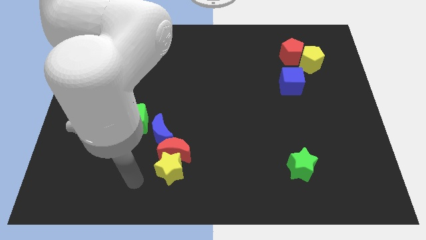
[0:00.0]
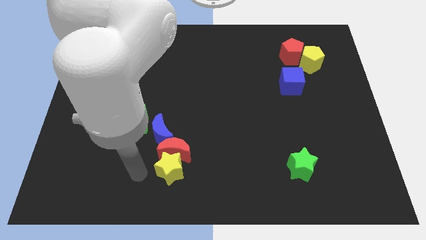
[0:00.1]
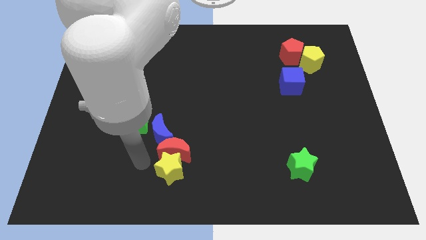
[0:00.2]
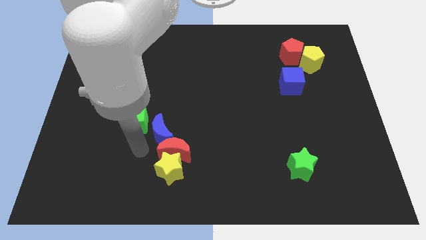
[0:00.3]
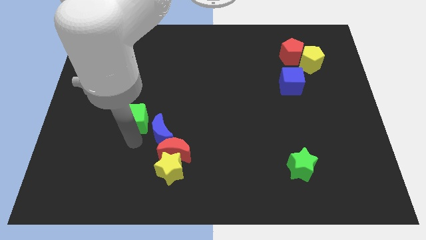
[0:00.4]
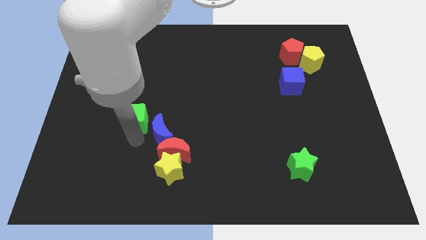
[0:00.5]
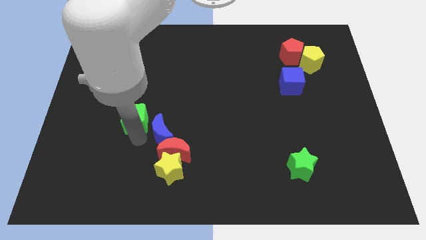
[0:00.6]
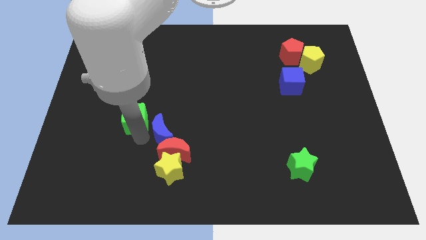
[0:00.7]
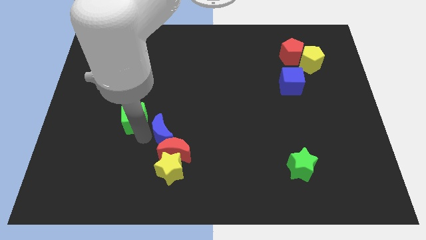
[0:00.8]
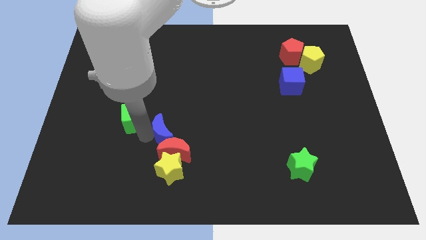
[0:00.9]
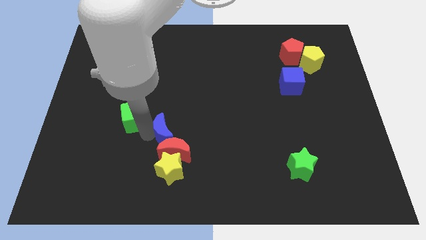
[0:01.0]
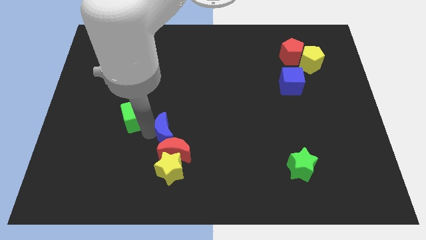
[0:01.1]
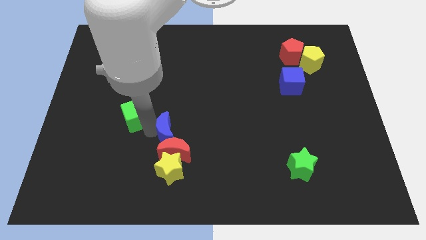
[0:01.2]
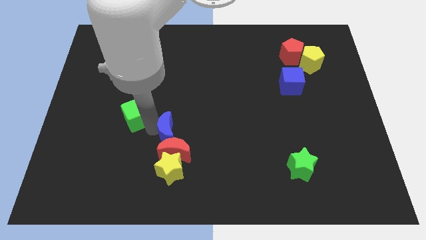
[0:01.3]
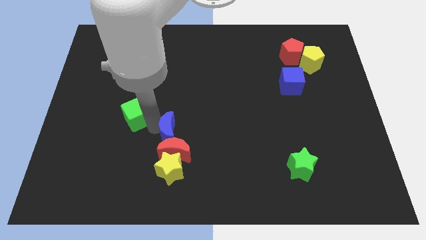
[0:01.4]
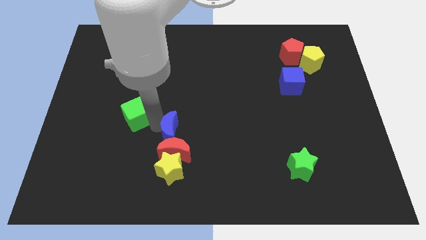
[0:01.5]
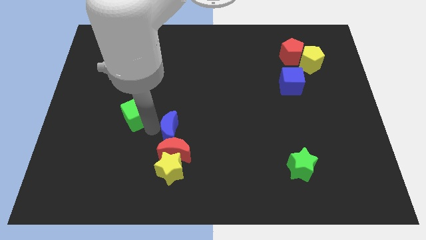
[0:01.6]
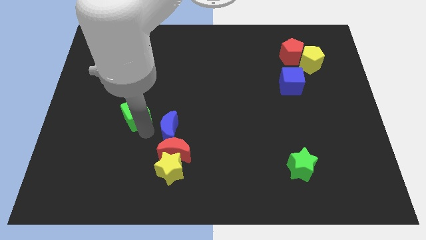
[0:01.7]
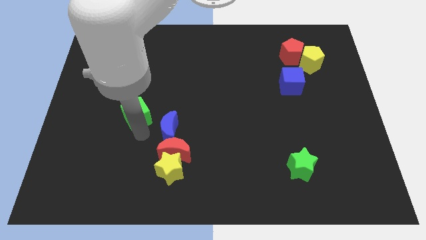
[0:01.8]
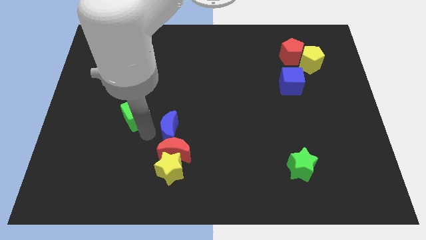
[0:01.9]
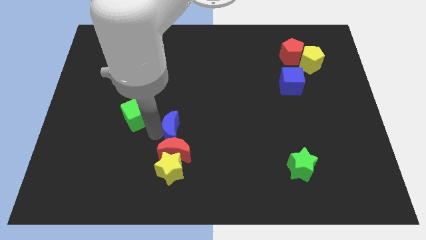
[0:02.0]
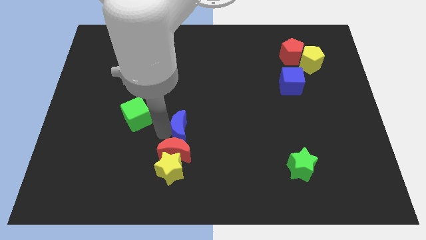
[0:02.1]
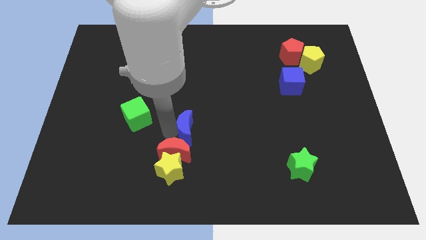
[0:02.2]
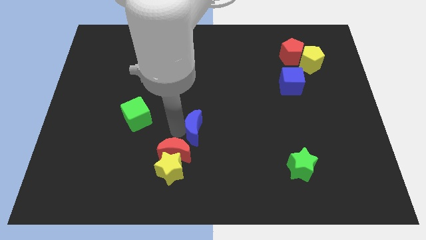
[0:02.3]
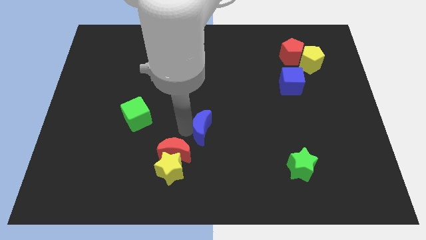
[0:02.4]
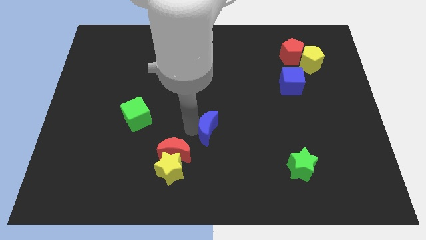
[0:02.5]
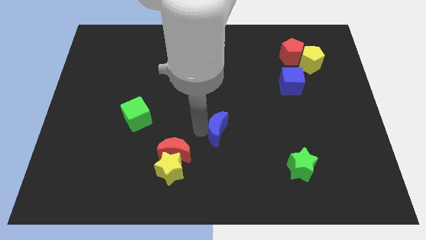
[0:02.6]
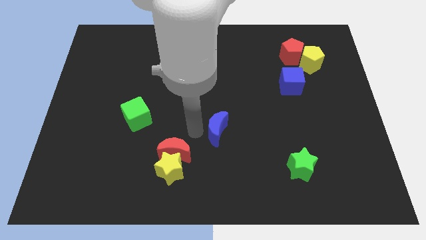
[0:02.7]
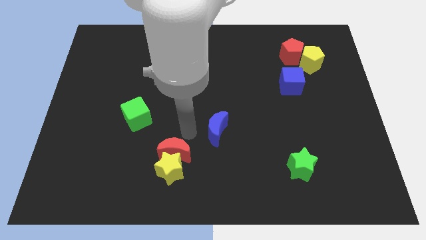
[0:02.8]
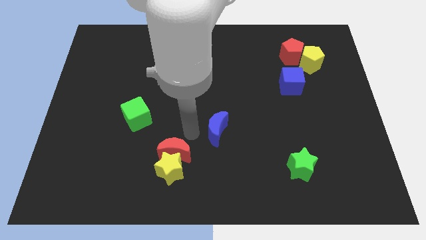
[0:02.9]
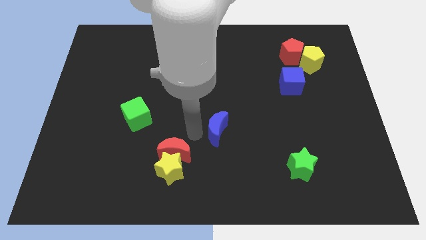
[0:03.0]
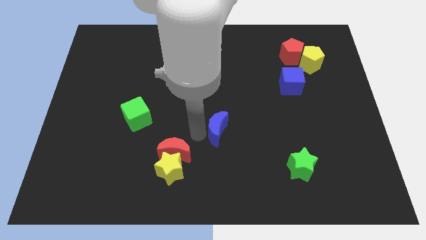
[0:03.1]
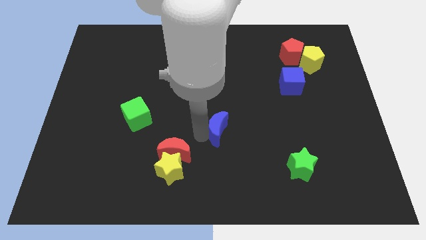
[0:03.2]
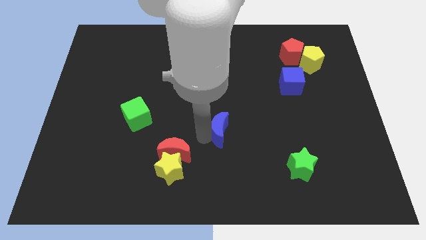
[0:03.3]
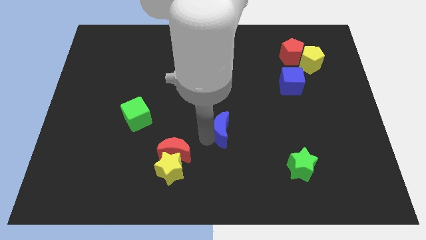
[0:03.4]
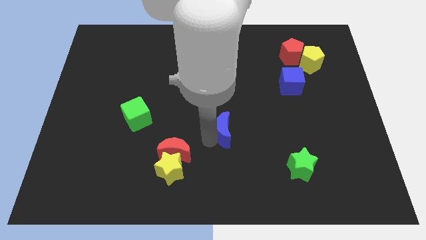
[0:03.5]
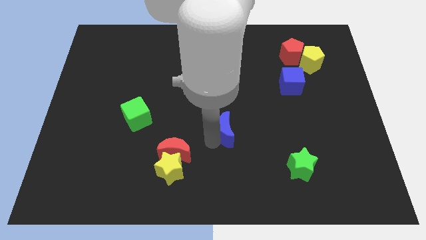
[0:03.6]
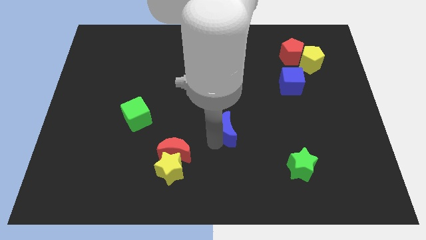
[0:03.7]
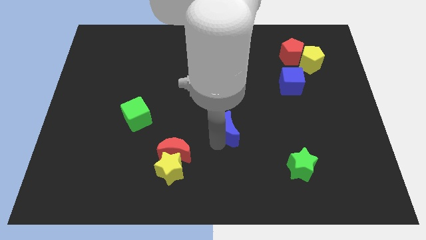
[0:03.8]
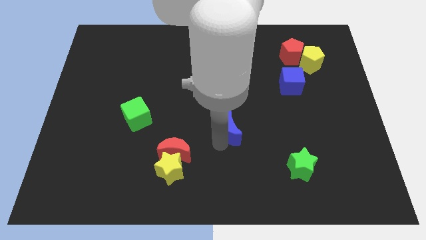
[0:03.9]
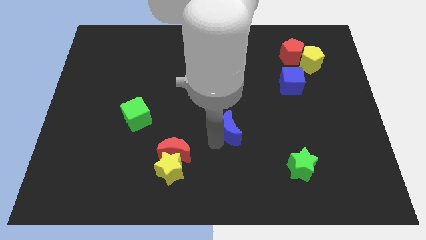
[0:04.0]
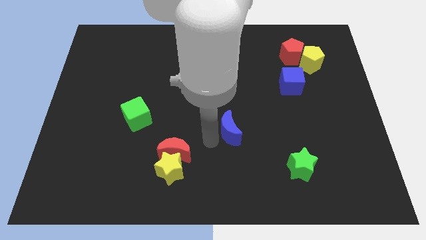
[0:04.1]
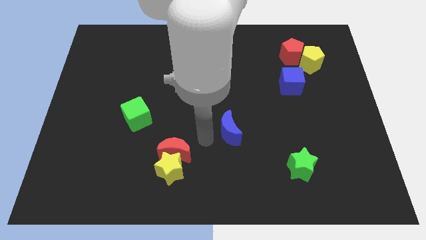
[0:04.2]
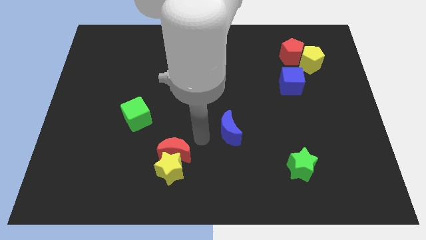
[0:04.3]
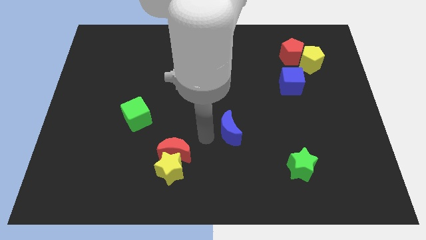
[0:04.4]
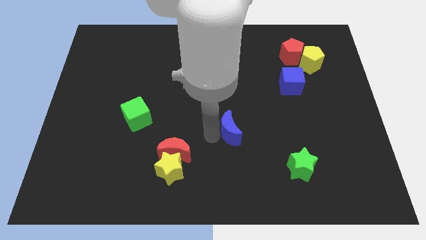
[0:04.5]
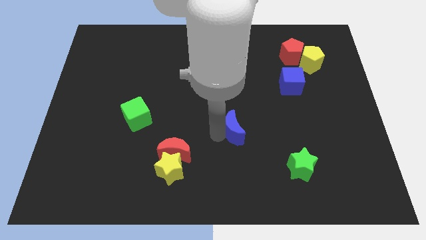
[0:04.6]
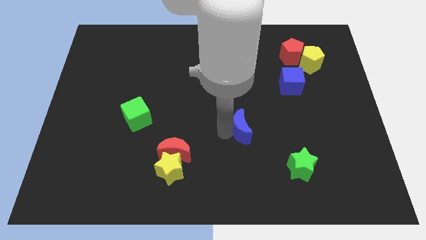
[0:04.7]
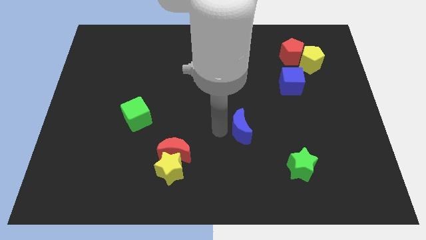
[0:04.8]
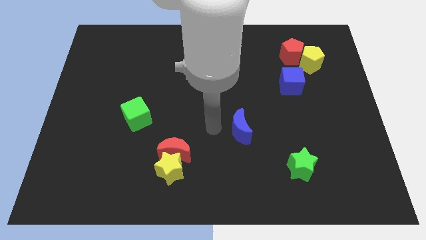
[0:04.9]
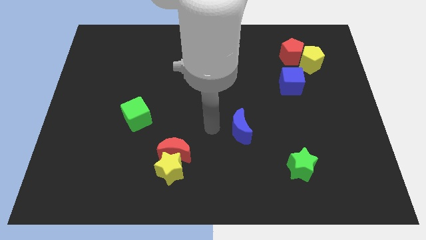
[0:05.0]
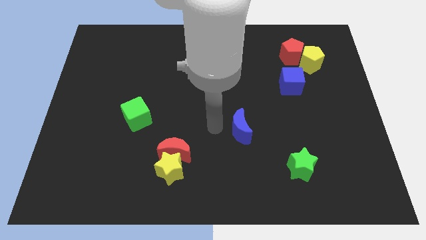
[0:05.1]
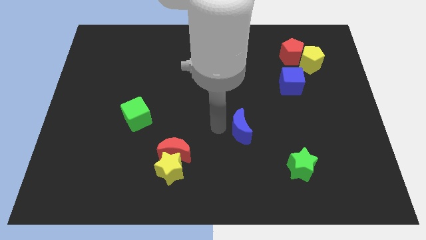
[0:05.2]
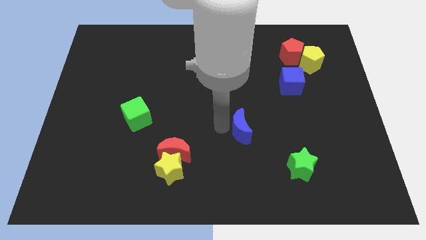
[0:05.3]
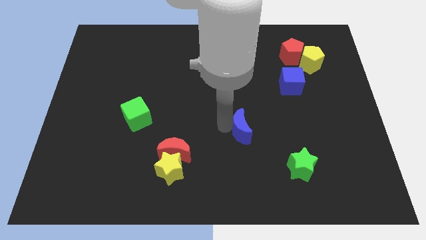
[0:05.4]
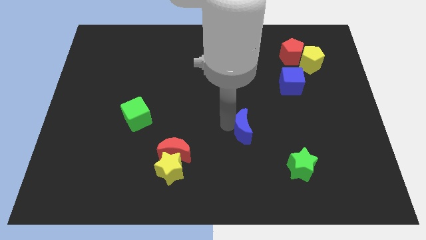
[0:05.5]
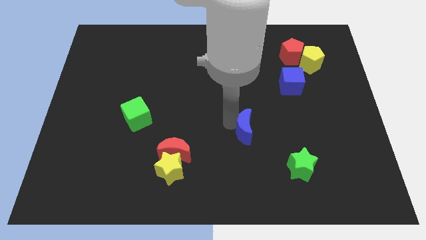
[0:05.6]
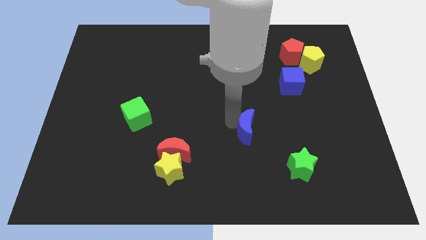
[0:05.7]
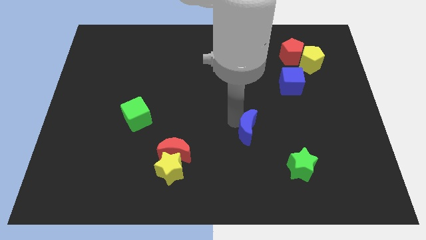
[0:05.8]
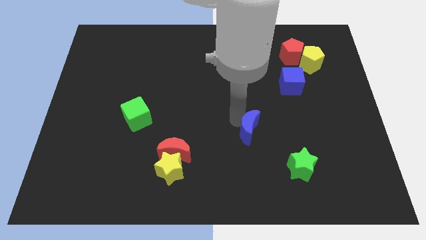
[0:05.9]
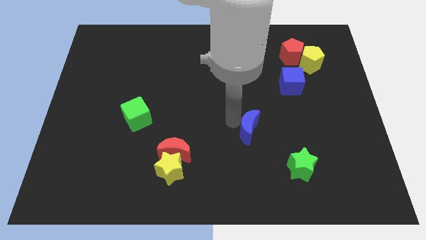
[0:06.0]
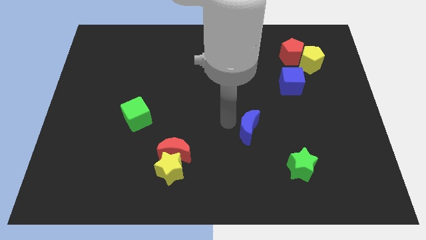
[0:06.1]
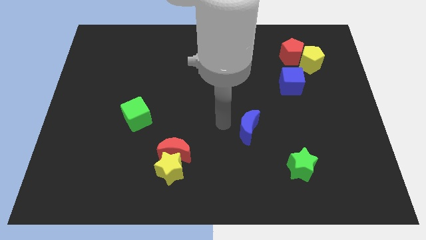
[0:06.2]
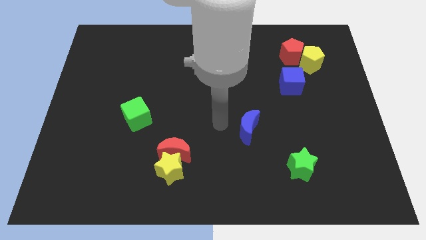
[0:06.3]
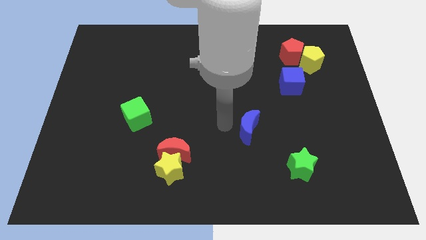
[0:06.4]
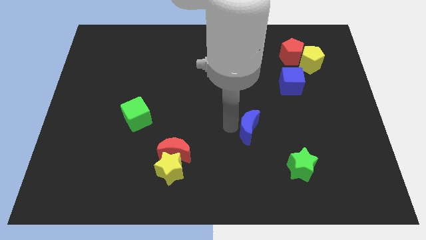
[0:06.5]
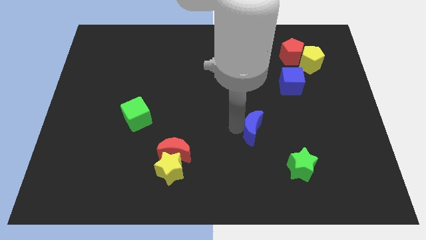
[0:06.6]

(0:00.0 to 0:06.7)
move the blue moon to the right

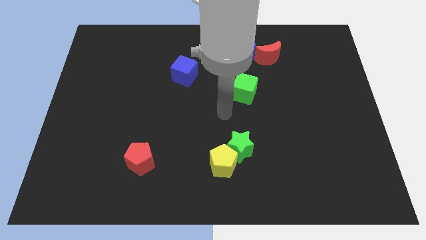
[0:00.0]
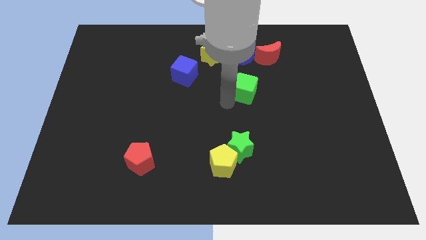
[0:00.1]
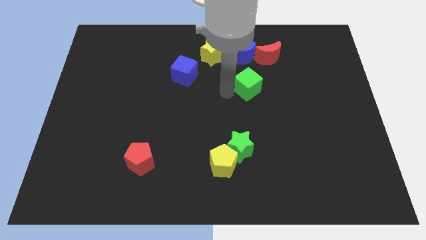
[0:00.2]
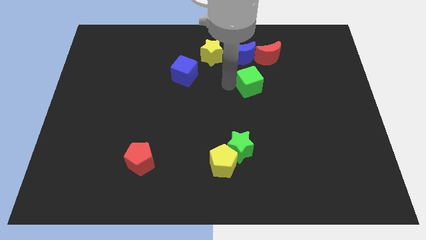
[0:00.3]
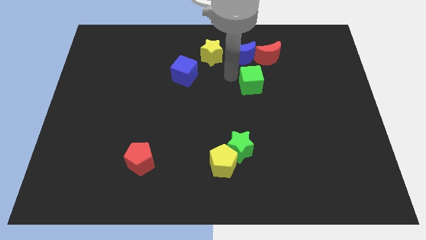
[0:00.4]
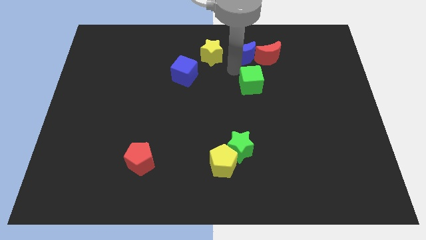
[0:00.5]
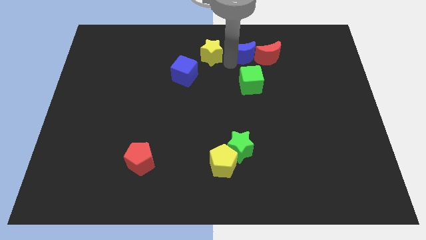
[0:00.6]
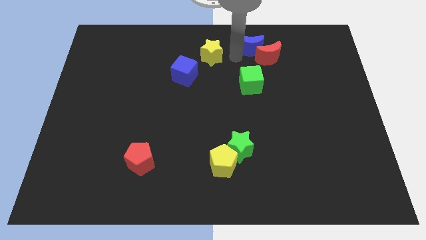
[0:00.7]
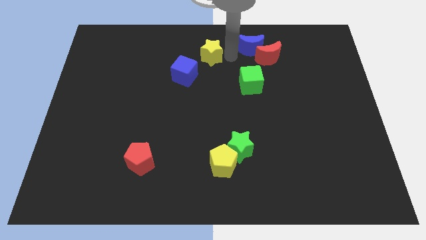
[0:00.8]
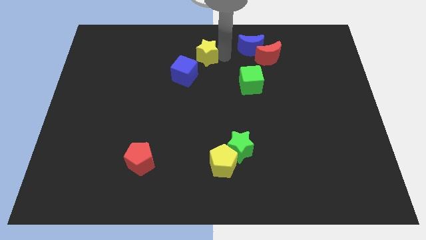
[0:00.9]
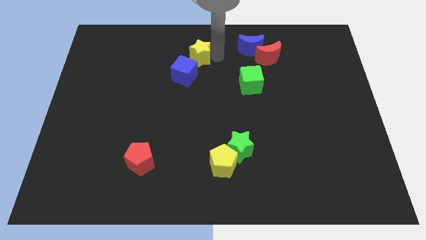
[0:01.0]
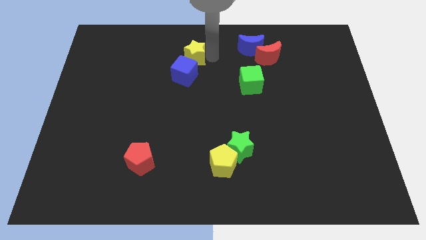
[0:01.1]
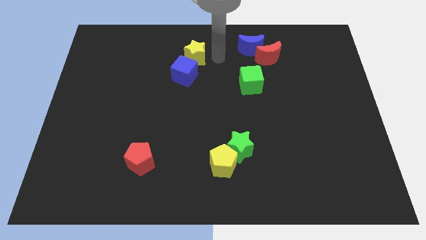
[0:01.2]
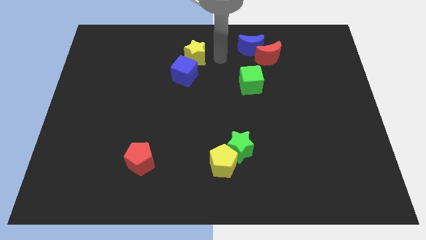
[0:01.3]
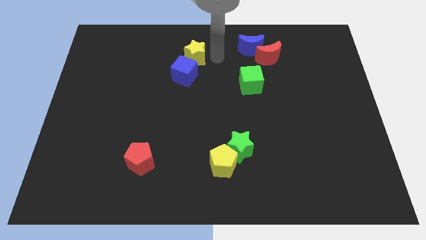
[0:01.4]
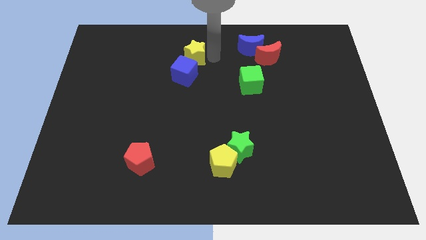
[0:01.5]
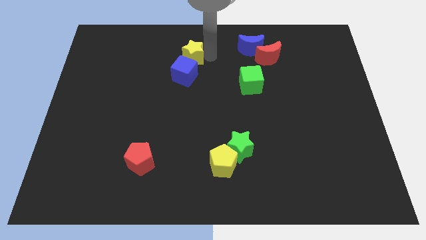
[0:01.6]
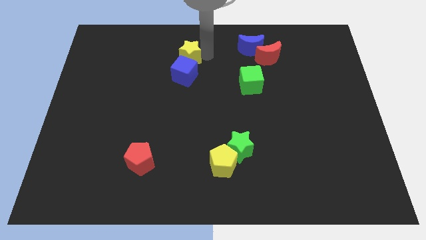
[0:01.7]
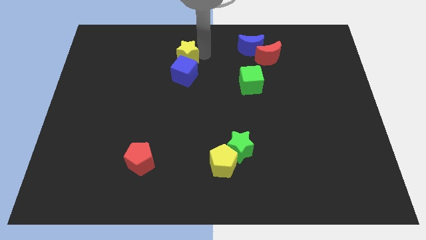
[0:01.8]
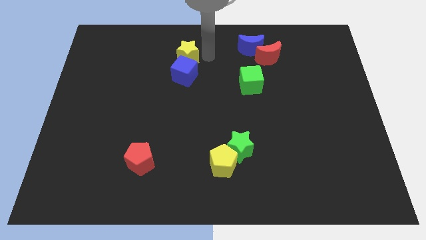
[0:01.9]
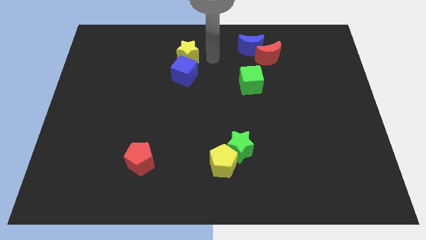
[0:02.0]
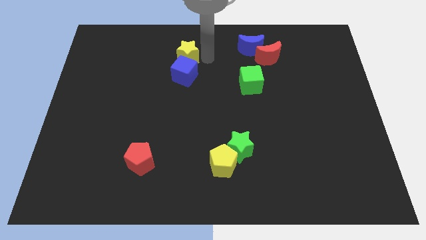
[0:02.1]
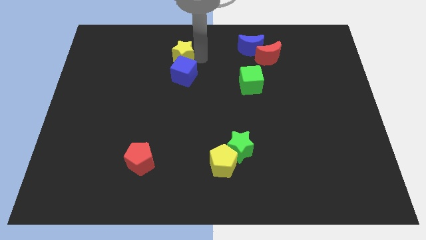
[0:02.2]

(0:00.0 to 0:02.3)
move the yellow star slightly to the left
